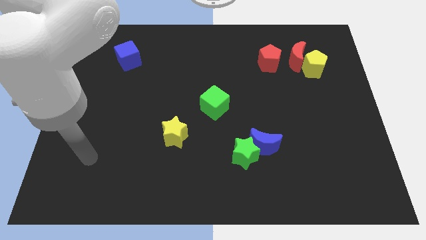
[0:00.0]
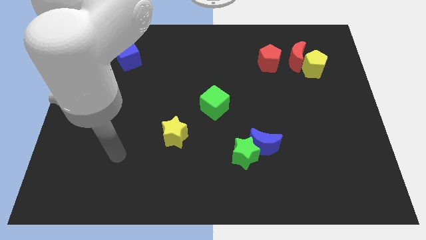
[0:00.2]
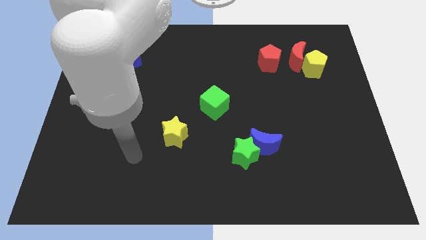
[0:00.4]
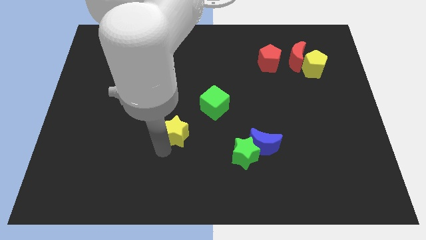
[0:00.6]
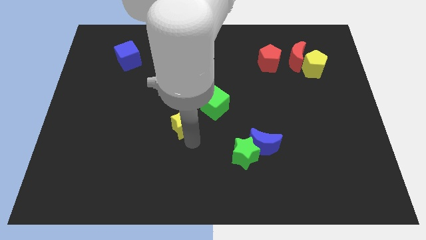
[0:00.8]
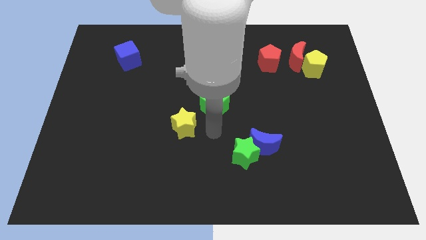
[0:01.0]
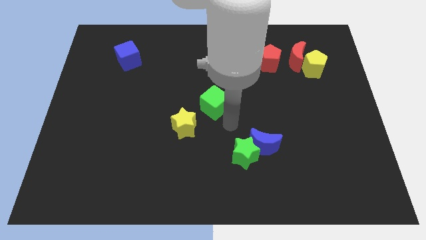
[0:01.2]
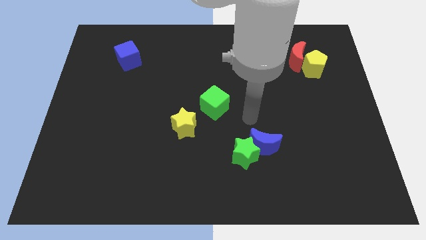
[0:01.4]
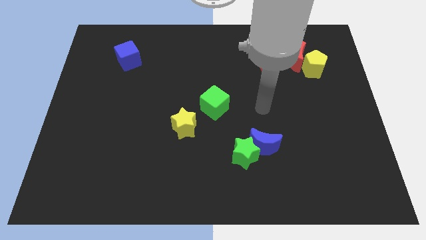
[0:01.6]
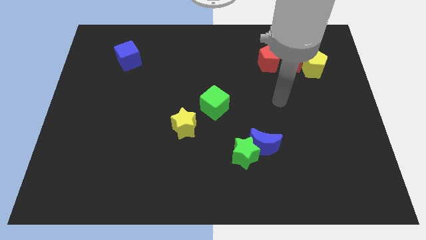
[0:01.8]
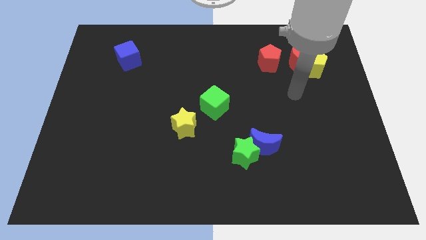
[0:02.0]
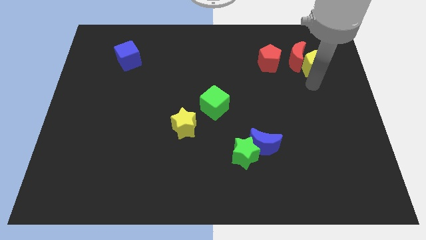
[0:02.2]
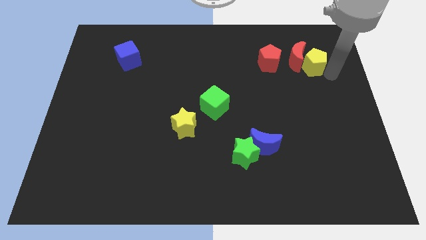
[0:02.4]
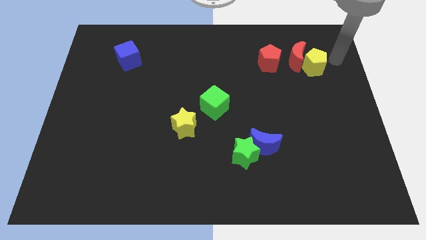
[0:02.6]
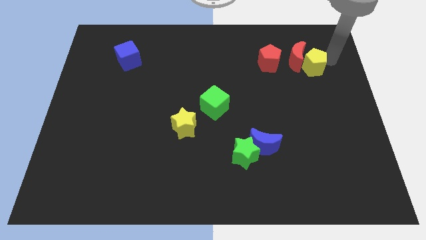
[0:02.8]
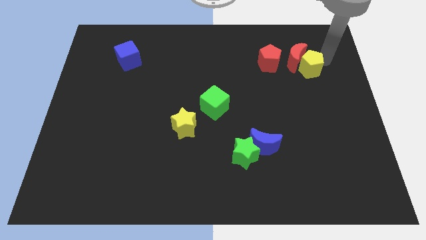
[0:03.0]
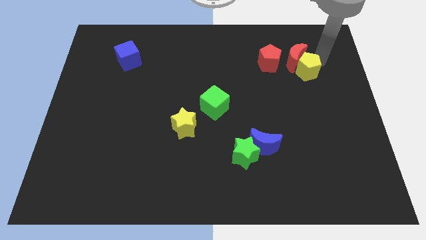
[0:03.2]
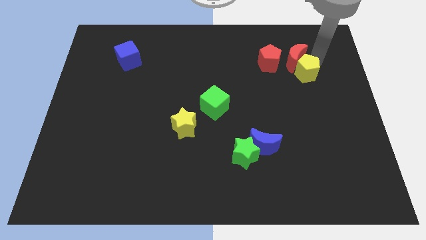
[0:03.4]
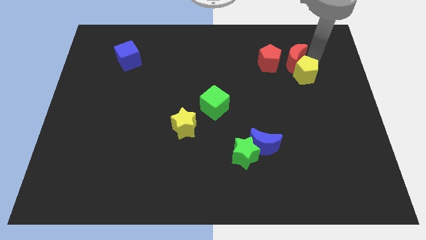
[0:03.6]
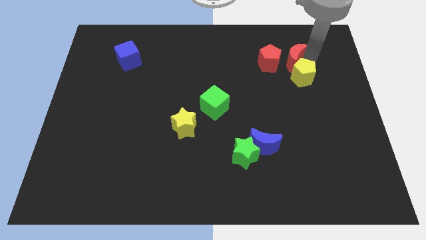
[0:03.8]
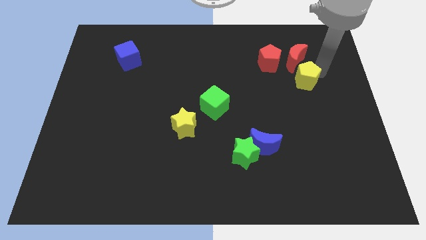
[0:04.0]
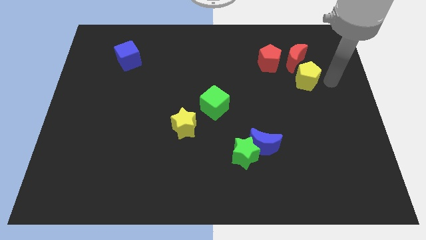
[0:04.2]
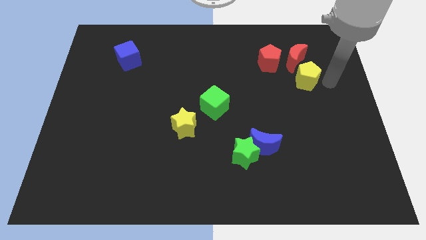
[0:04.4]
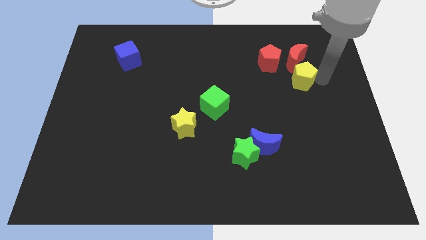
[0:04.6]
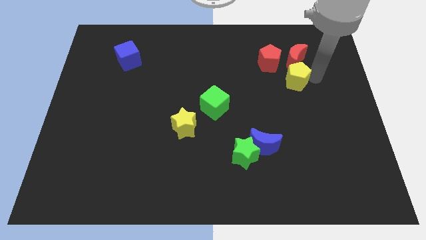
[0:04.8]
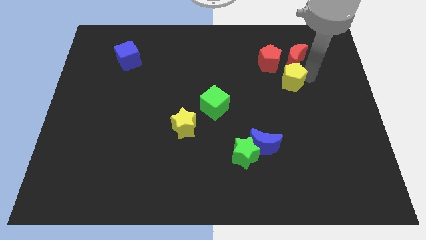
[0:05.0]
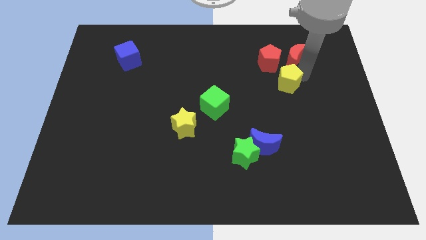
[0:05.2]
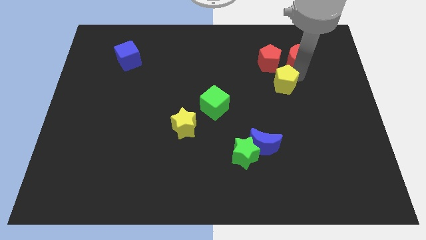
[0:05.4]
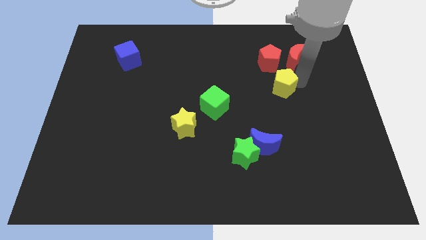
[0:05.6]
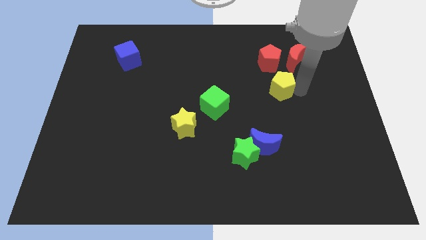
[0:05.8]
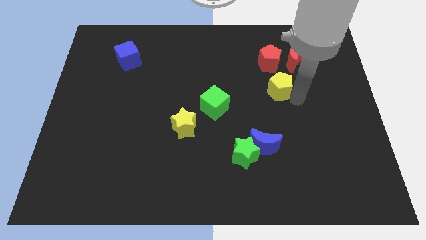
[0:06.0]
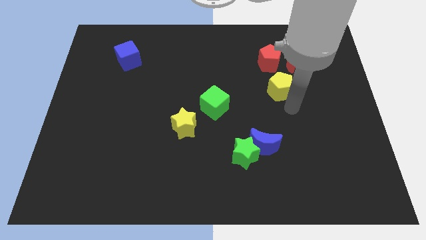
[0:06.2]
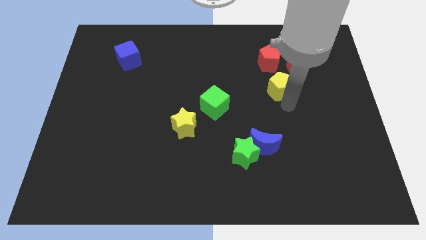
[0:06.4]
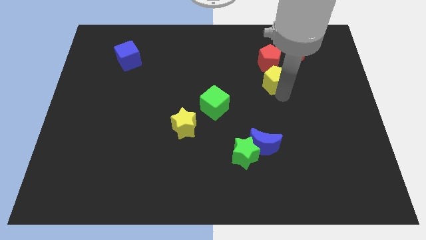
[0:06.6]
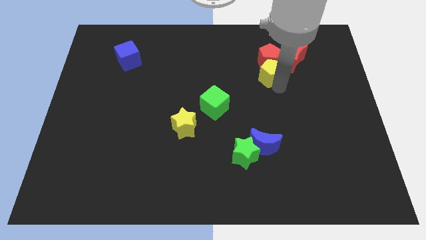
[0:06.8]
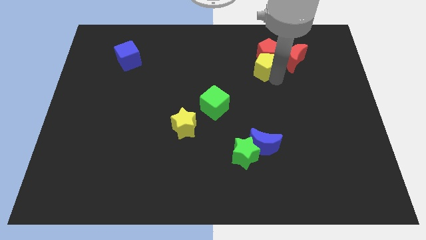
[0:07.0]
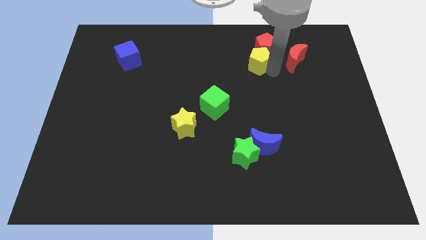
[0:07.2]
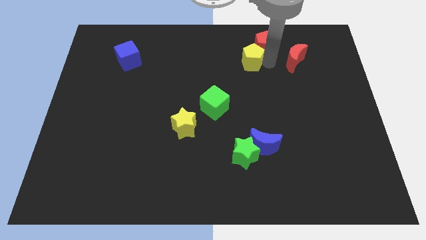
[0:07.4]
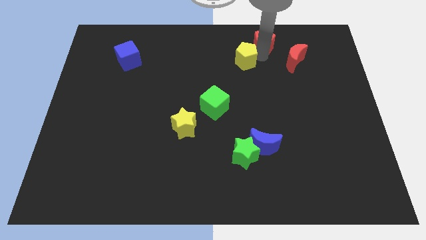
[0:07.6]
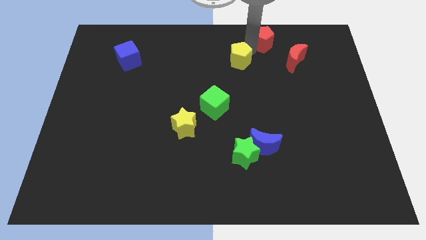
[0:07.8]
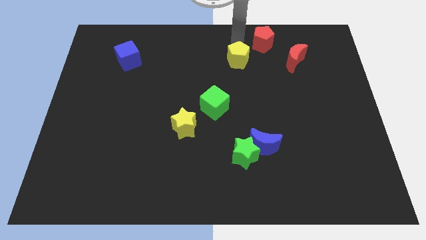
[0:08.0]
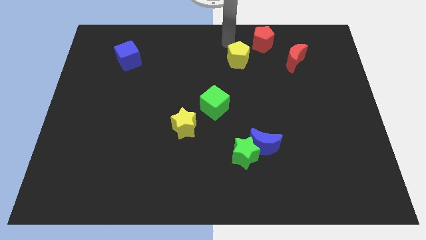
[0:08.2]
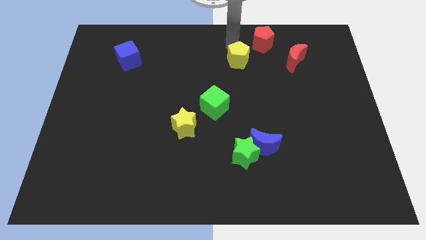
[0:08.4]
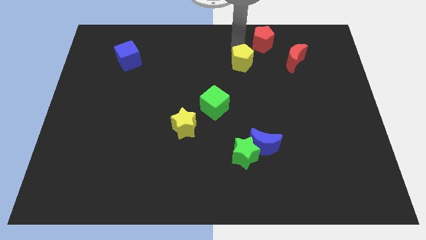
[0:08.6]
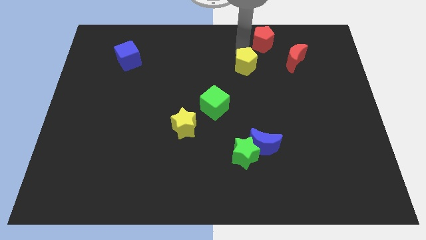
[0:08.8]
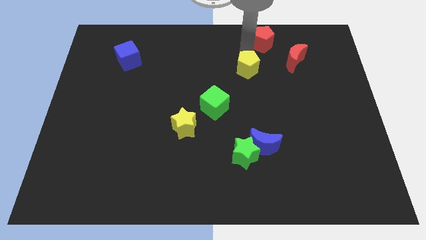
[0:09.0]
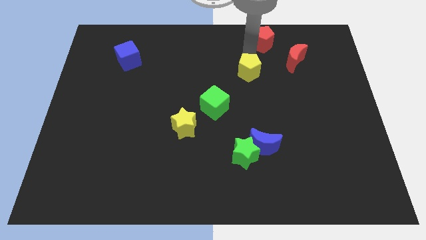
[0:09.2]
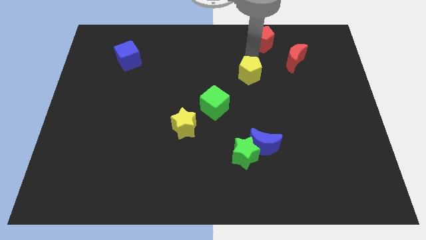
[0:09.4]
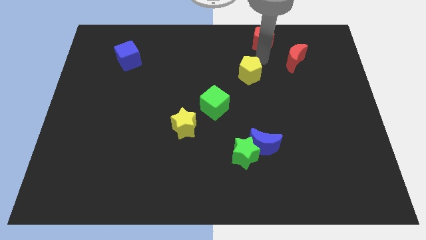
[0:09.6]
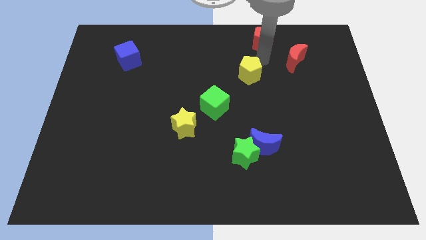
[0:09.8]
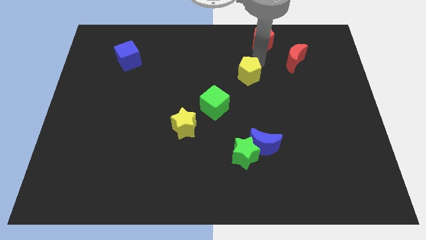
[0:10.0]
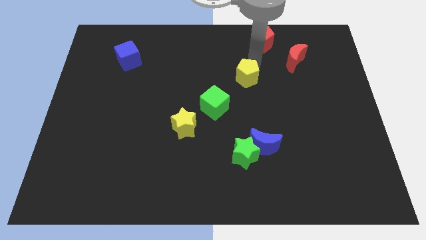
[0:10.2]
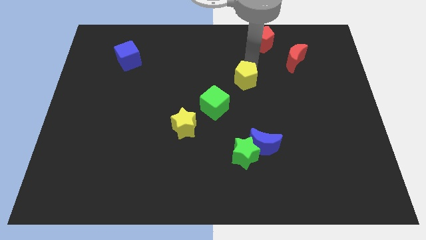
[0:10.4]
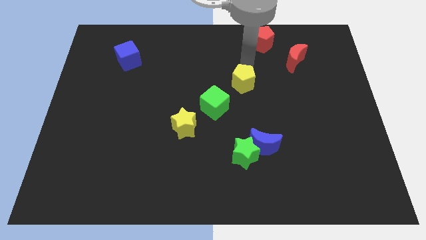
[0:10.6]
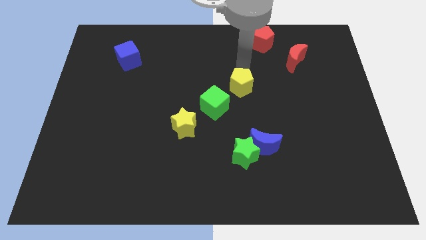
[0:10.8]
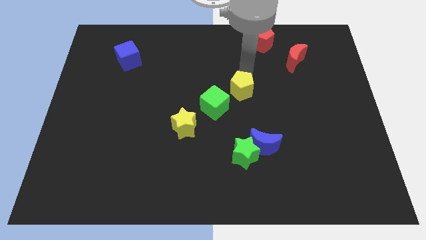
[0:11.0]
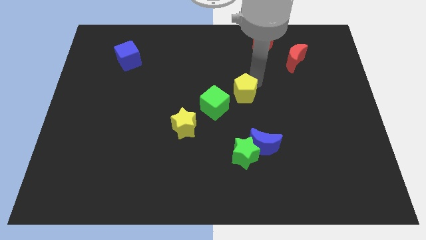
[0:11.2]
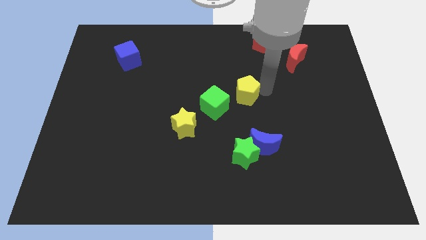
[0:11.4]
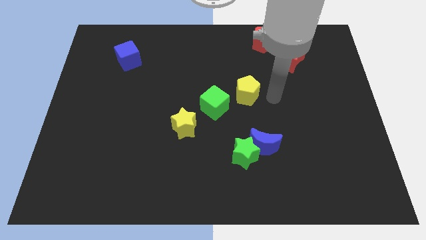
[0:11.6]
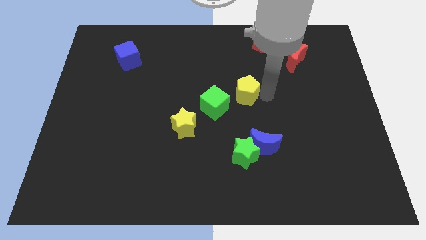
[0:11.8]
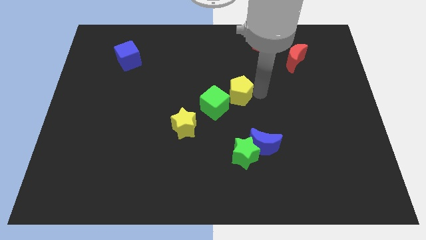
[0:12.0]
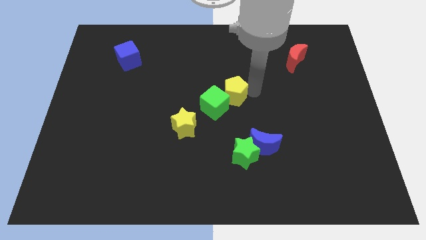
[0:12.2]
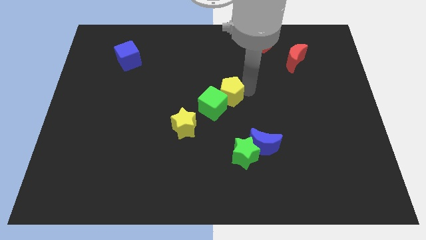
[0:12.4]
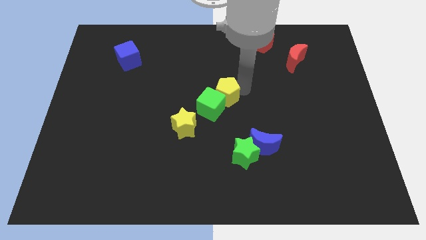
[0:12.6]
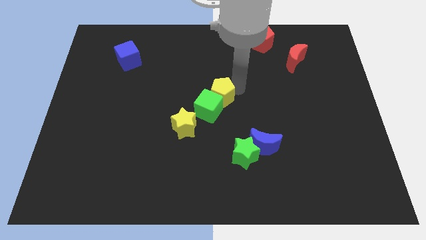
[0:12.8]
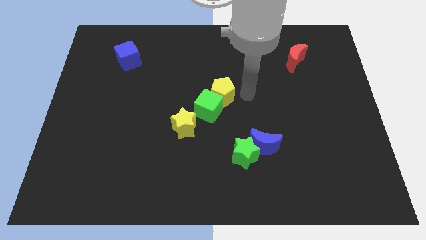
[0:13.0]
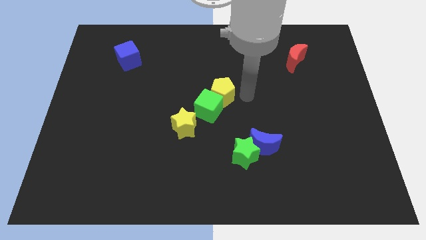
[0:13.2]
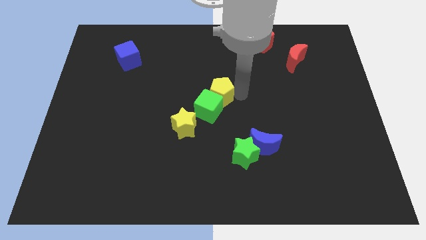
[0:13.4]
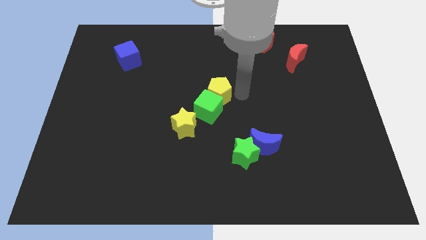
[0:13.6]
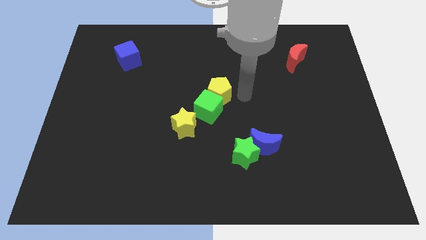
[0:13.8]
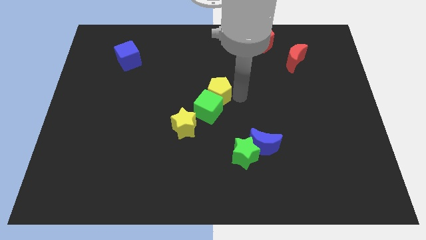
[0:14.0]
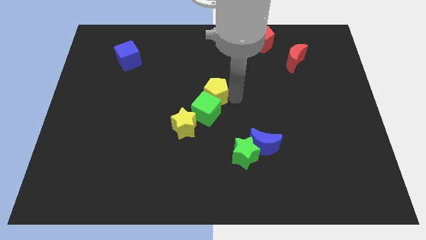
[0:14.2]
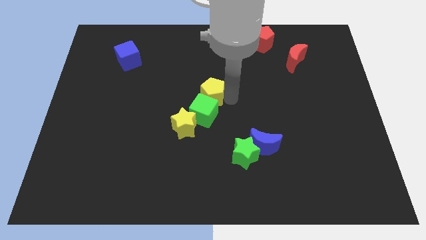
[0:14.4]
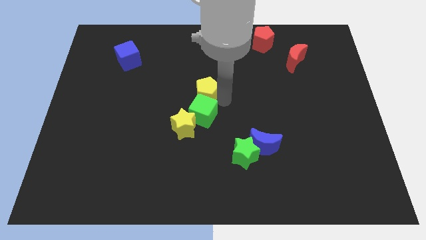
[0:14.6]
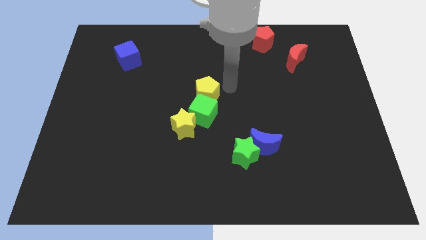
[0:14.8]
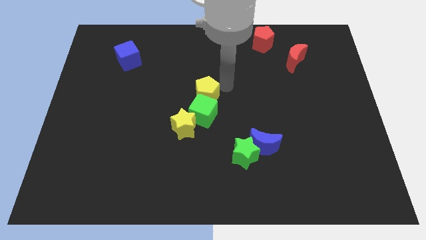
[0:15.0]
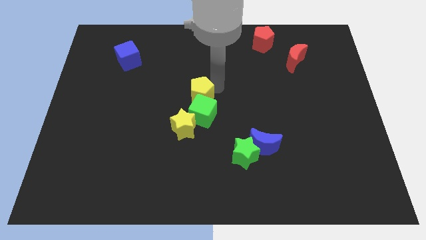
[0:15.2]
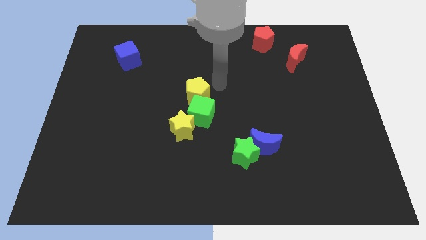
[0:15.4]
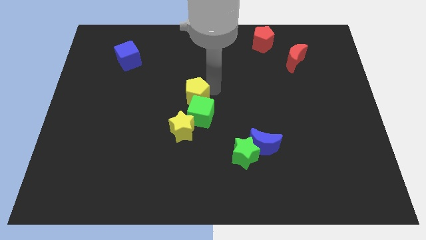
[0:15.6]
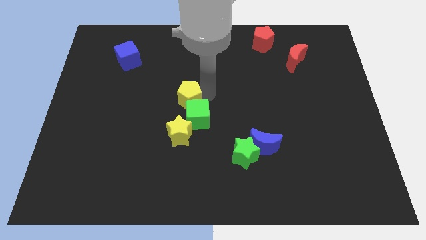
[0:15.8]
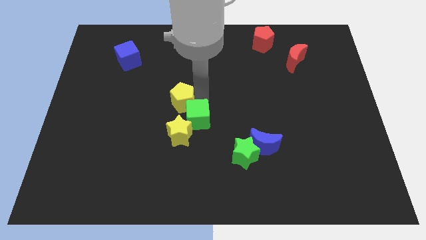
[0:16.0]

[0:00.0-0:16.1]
slide the yellow pentagon to the left of the green cube
